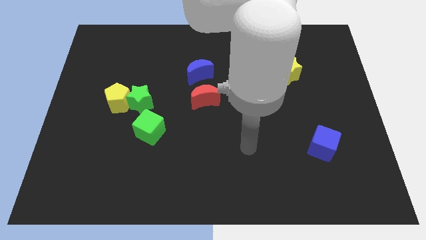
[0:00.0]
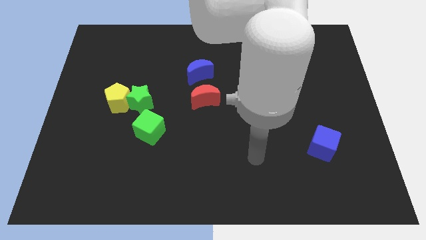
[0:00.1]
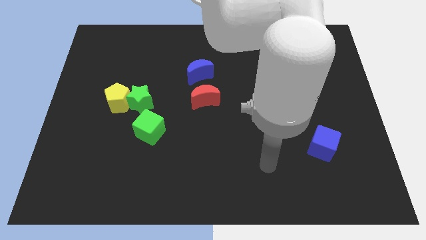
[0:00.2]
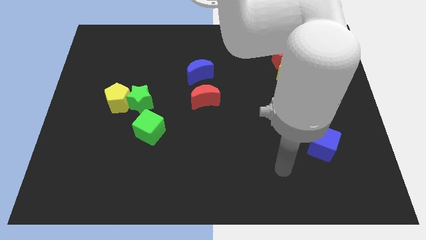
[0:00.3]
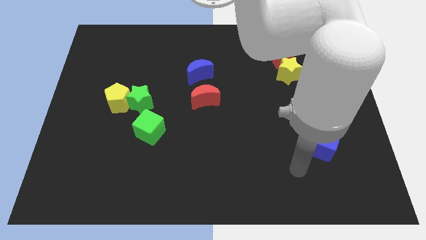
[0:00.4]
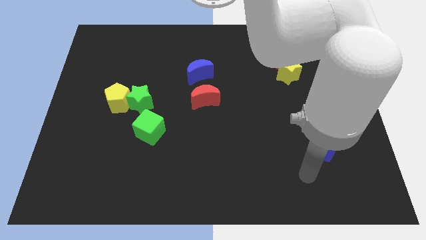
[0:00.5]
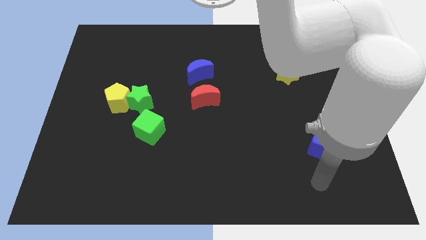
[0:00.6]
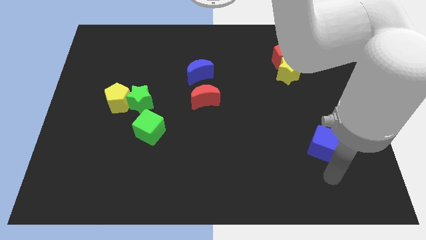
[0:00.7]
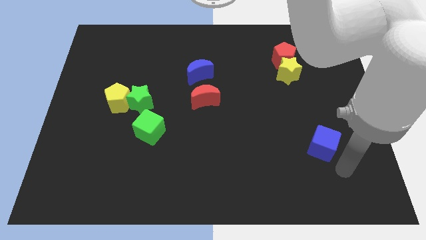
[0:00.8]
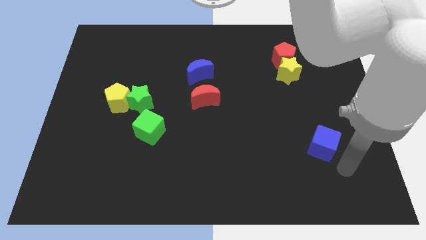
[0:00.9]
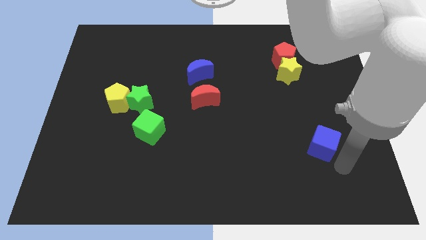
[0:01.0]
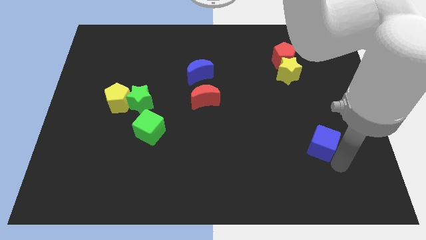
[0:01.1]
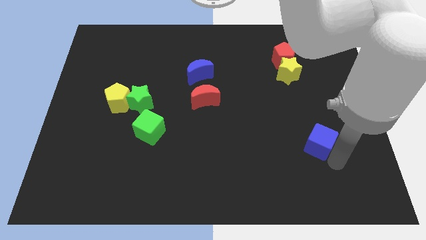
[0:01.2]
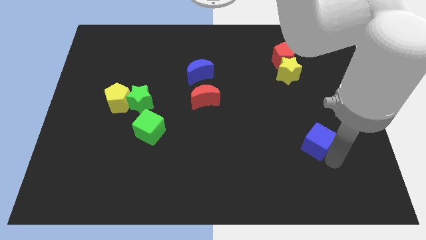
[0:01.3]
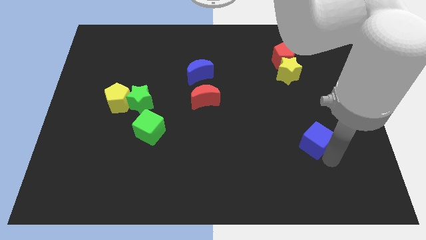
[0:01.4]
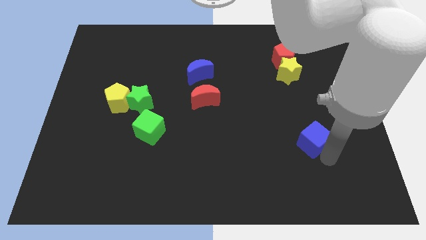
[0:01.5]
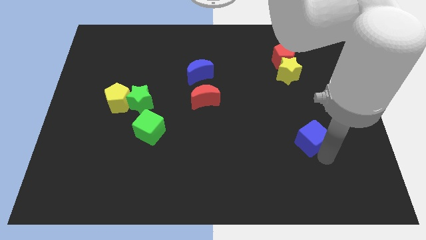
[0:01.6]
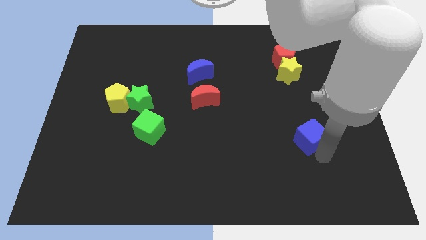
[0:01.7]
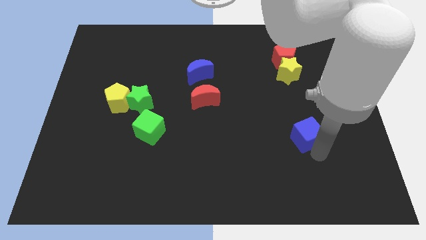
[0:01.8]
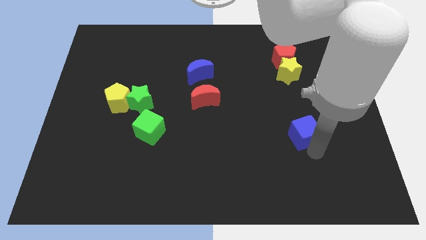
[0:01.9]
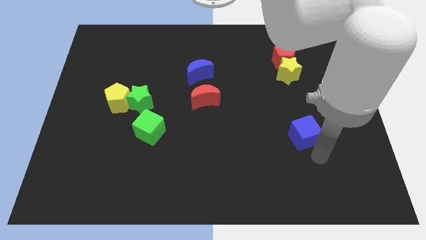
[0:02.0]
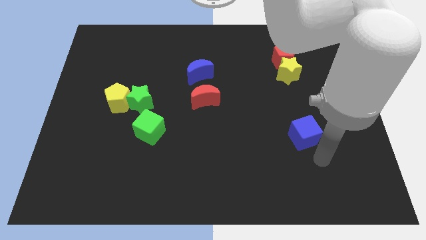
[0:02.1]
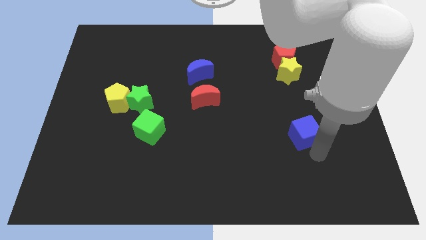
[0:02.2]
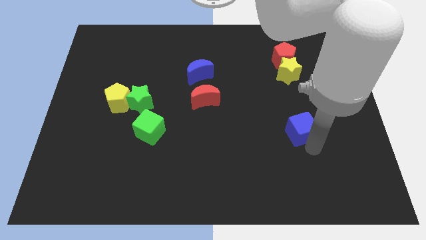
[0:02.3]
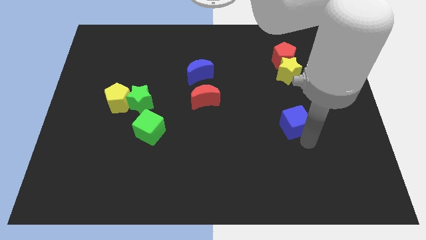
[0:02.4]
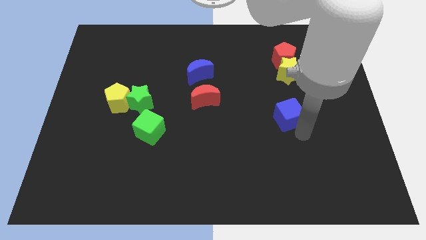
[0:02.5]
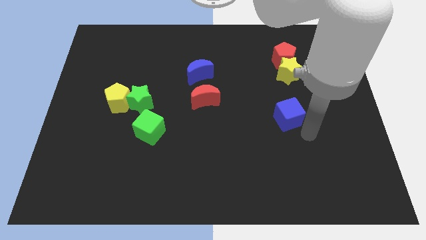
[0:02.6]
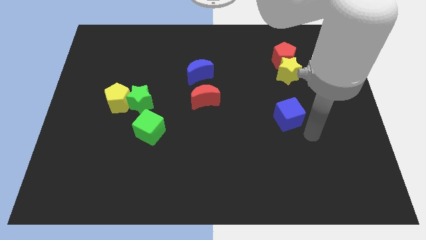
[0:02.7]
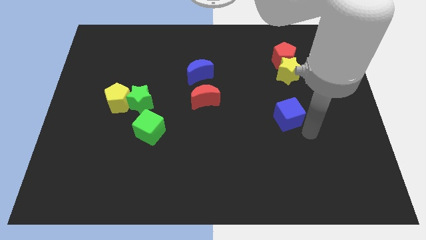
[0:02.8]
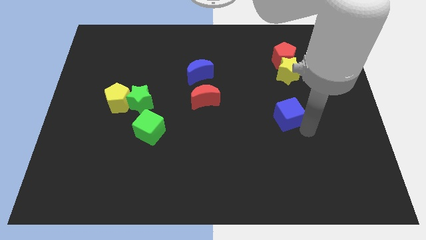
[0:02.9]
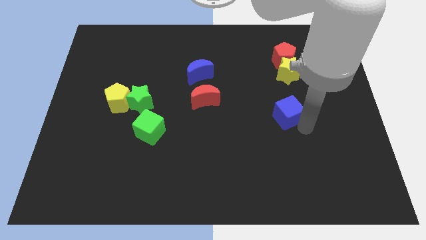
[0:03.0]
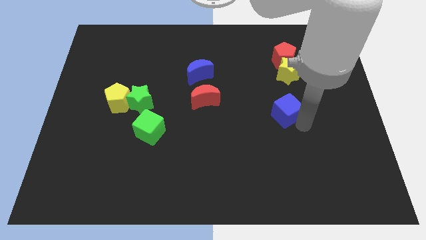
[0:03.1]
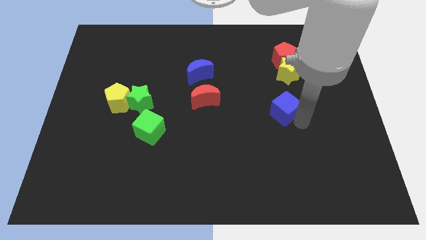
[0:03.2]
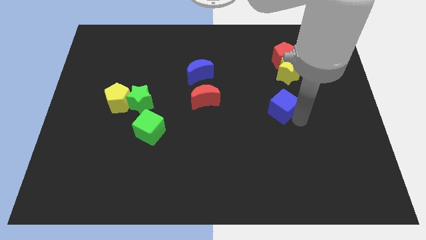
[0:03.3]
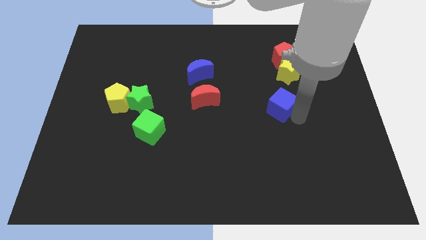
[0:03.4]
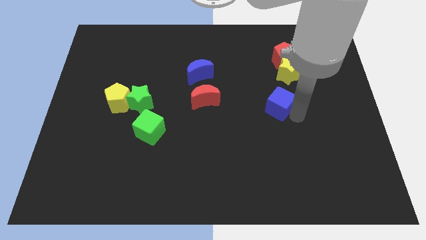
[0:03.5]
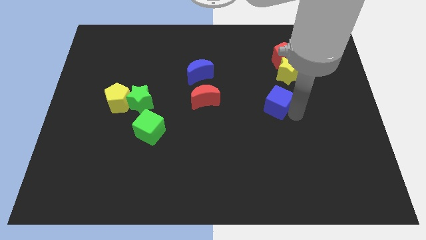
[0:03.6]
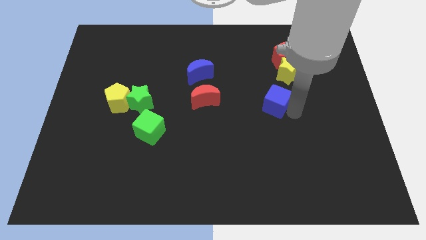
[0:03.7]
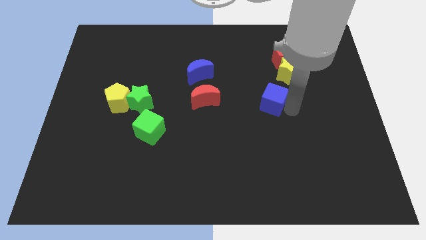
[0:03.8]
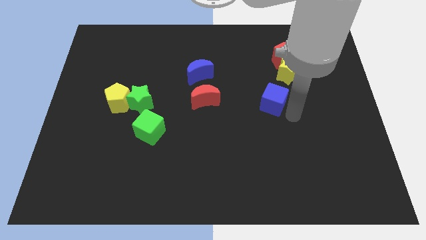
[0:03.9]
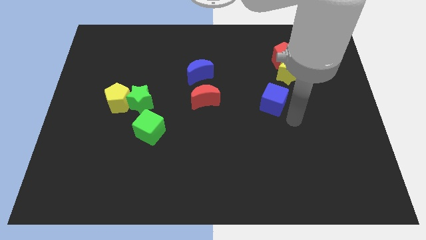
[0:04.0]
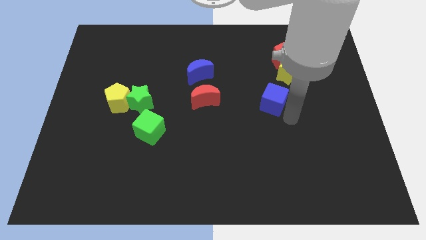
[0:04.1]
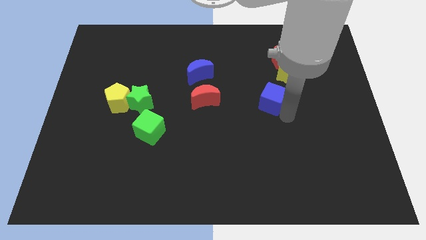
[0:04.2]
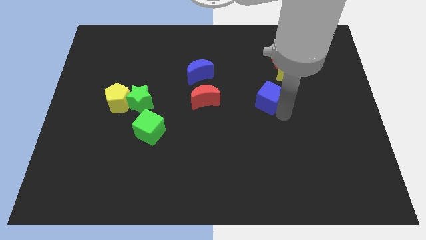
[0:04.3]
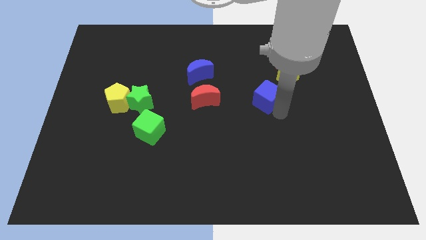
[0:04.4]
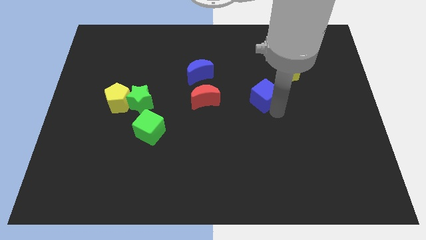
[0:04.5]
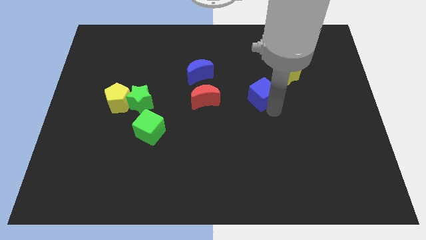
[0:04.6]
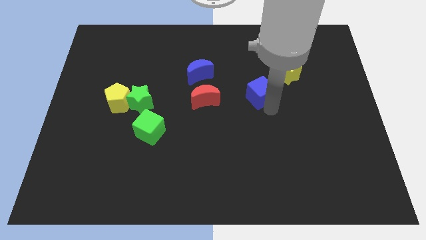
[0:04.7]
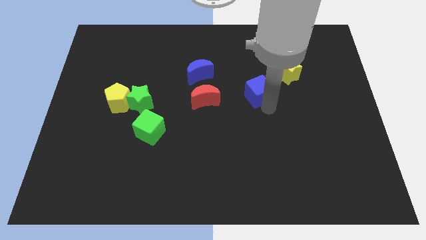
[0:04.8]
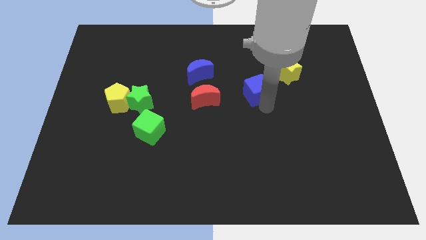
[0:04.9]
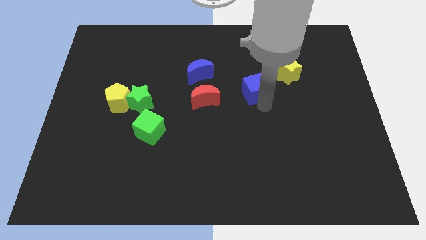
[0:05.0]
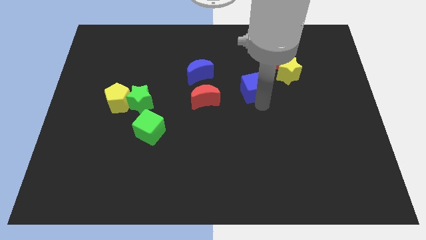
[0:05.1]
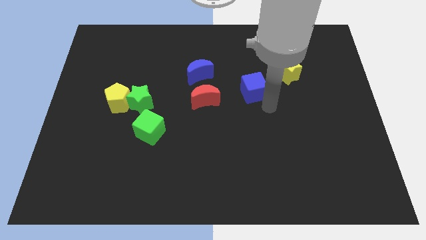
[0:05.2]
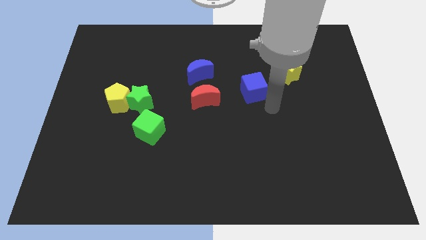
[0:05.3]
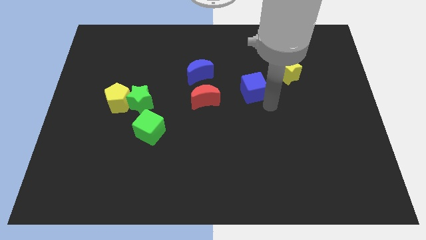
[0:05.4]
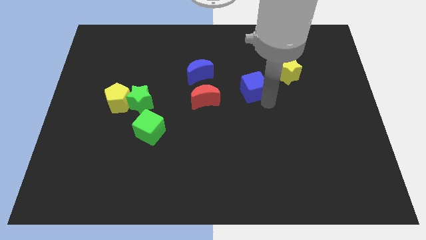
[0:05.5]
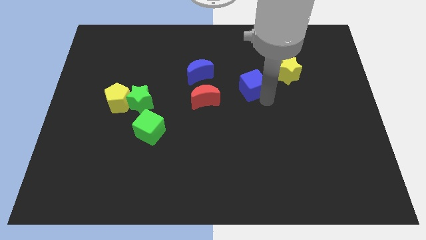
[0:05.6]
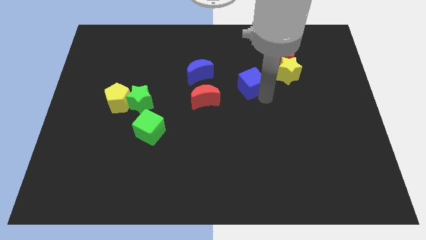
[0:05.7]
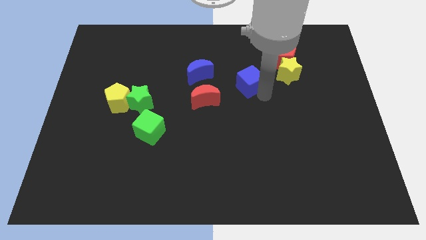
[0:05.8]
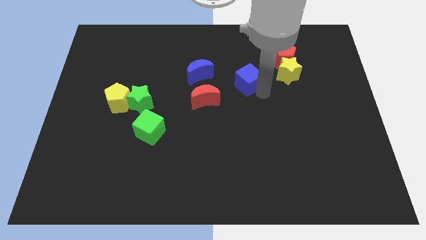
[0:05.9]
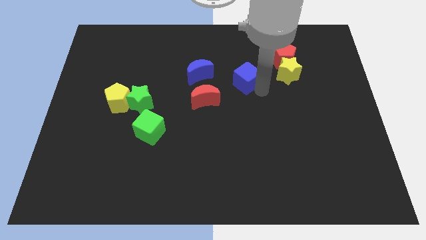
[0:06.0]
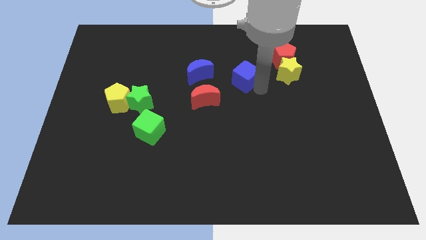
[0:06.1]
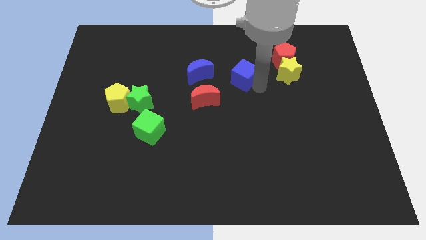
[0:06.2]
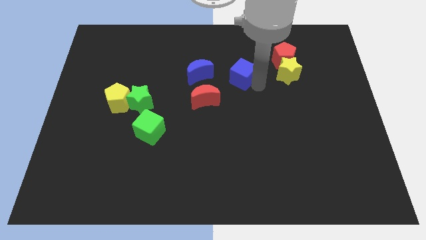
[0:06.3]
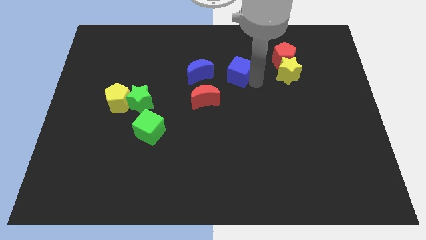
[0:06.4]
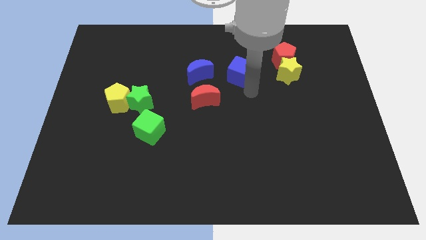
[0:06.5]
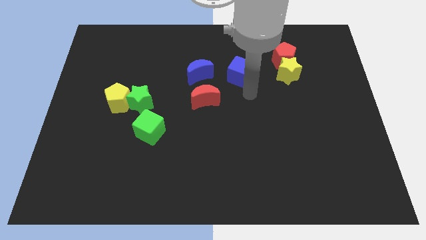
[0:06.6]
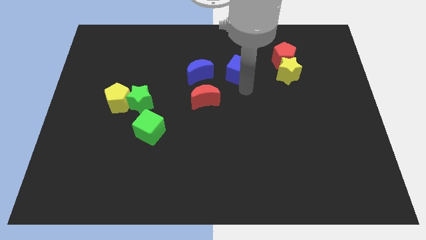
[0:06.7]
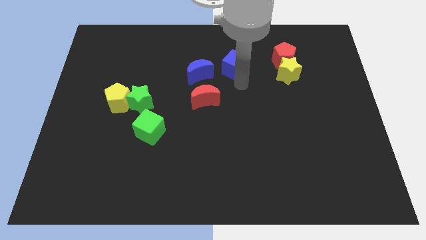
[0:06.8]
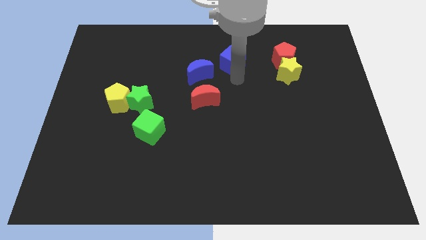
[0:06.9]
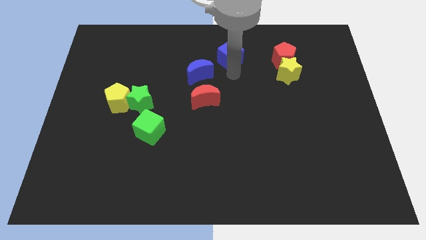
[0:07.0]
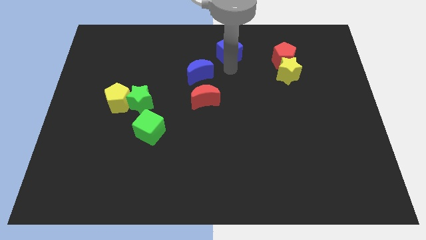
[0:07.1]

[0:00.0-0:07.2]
slide the blue cube to the towards your base

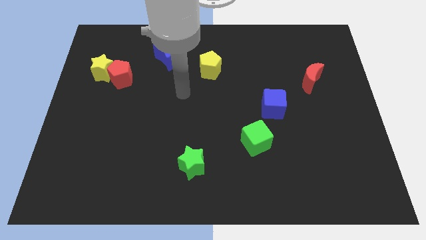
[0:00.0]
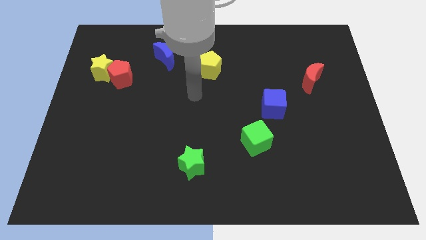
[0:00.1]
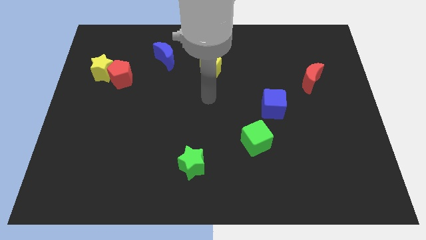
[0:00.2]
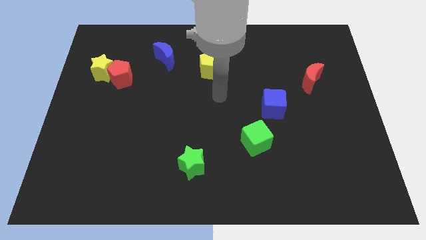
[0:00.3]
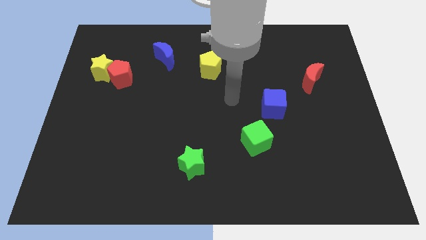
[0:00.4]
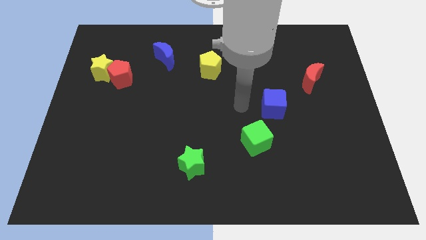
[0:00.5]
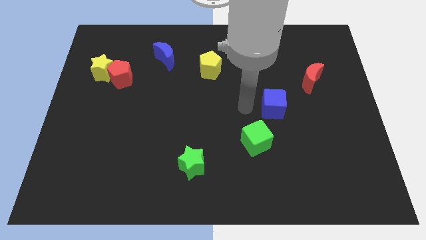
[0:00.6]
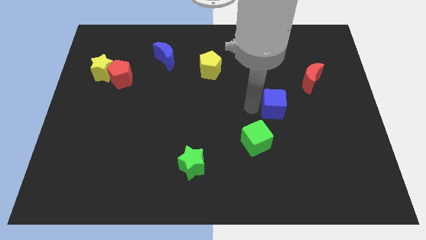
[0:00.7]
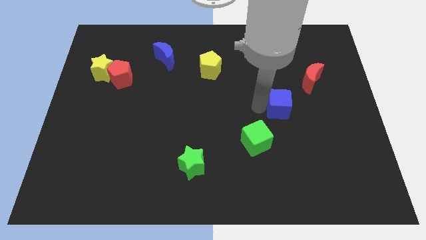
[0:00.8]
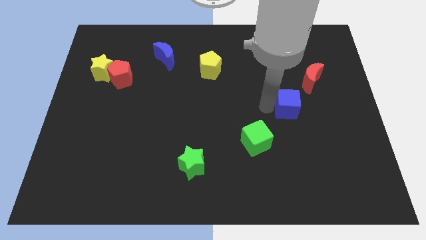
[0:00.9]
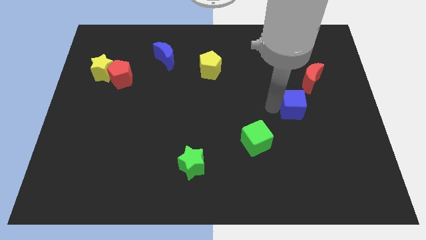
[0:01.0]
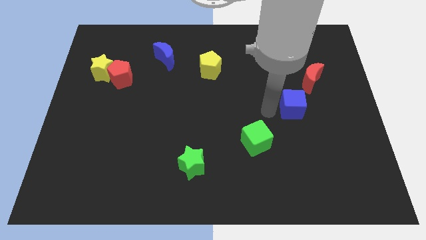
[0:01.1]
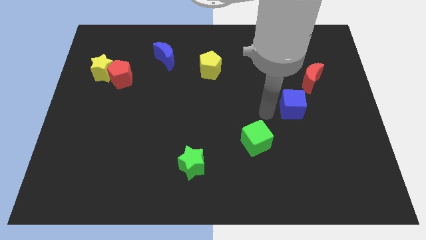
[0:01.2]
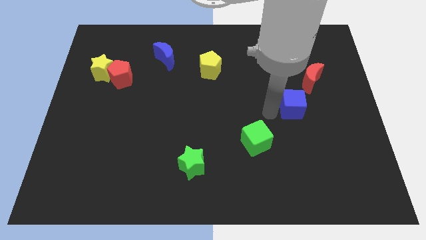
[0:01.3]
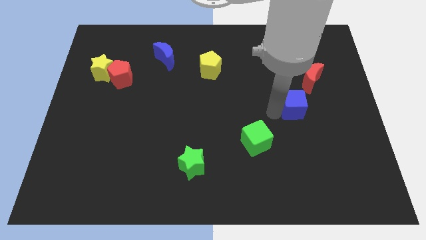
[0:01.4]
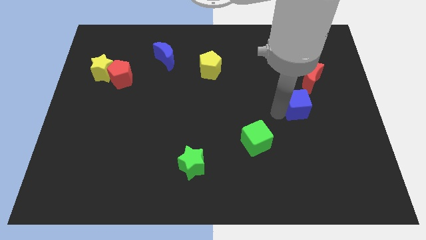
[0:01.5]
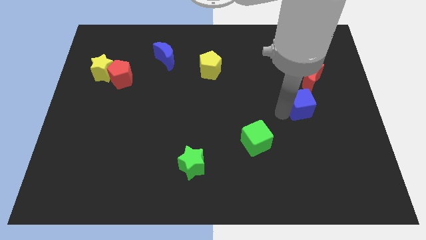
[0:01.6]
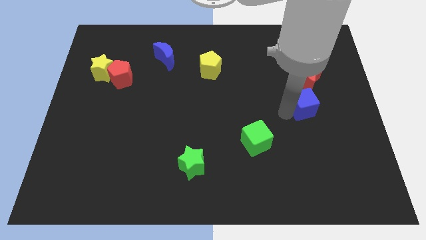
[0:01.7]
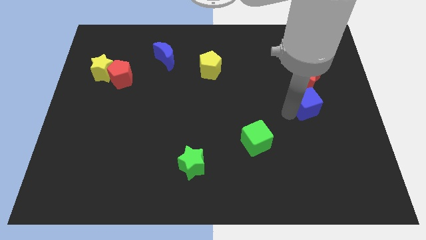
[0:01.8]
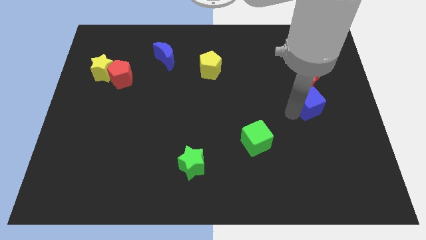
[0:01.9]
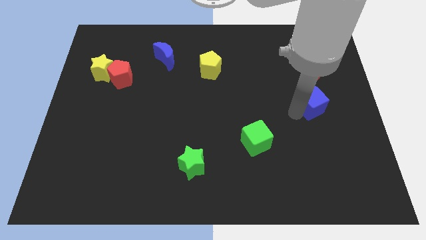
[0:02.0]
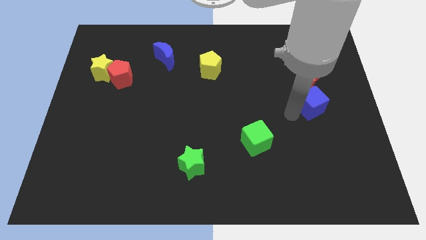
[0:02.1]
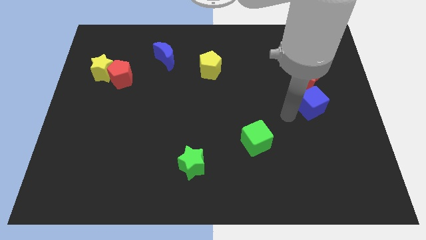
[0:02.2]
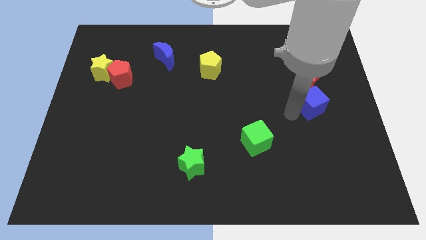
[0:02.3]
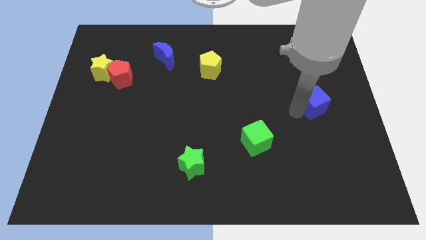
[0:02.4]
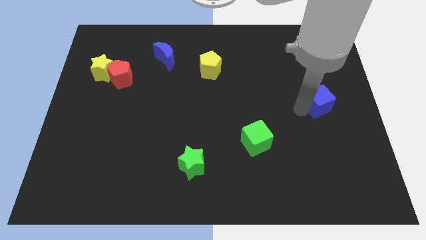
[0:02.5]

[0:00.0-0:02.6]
slide the blue cube to the right side
